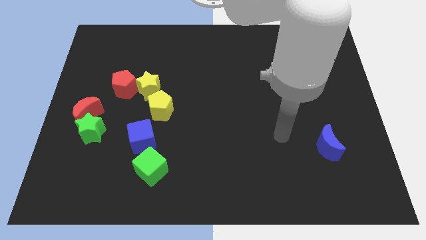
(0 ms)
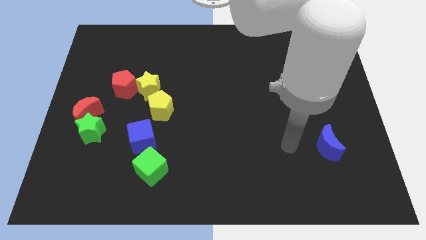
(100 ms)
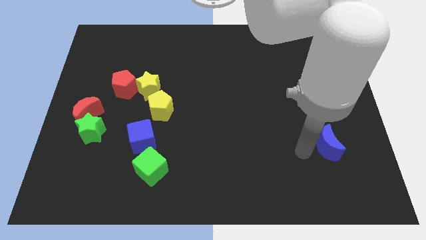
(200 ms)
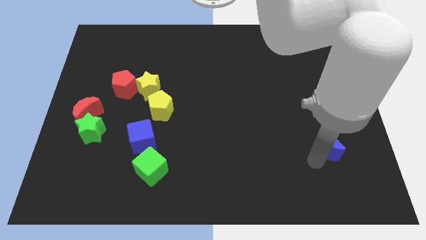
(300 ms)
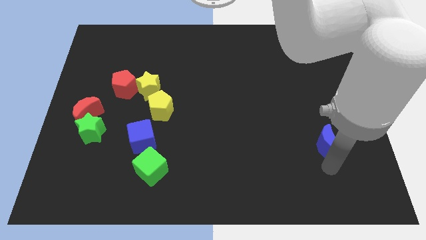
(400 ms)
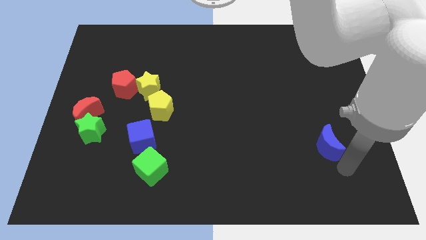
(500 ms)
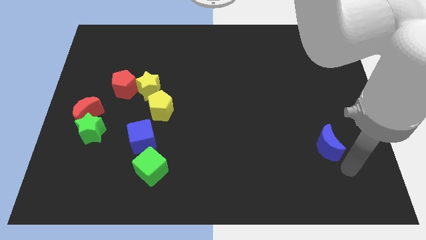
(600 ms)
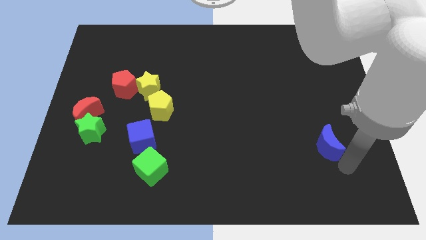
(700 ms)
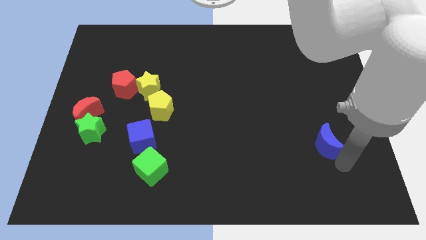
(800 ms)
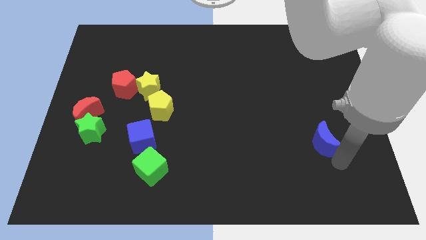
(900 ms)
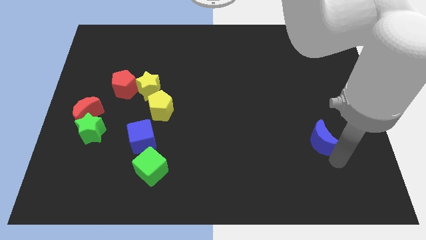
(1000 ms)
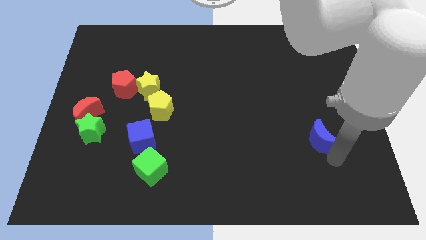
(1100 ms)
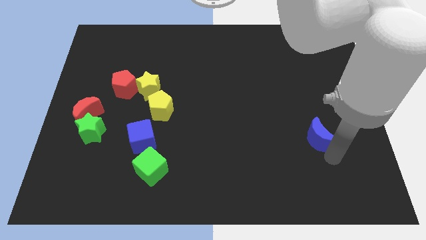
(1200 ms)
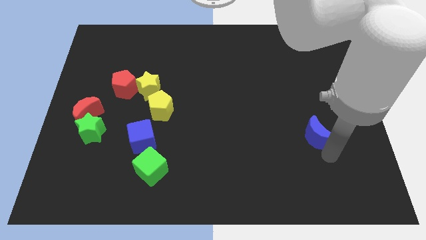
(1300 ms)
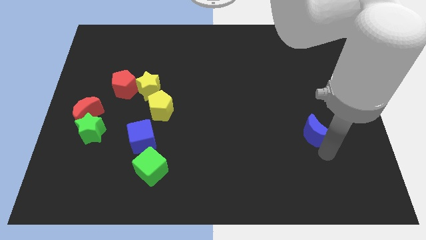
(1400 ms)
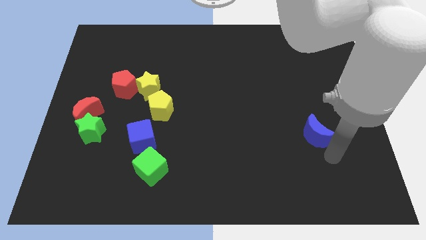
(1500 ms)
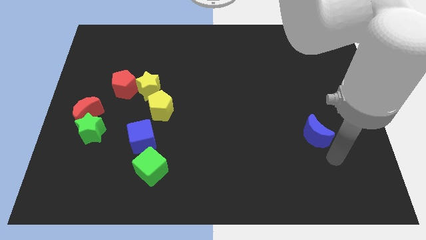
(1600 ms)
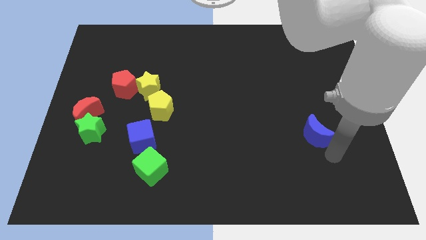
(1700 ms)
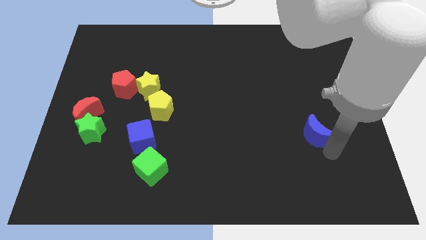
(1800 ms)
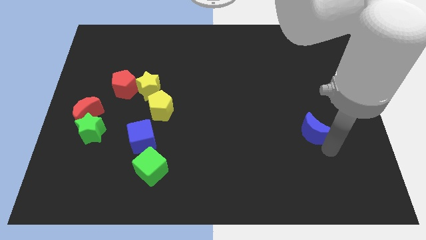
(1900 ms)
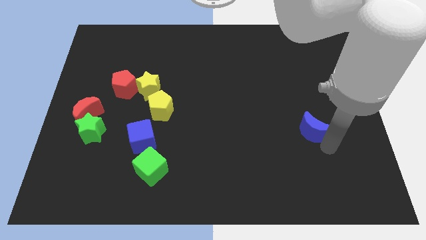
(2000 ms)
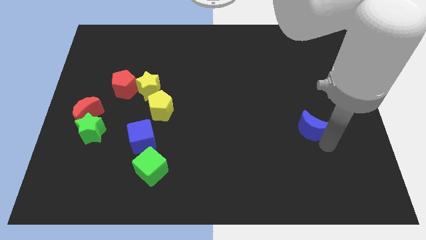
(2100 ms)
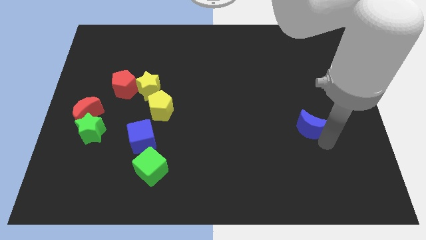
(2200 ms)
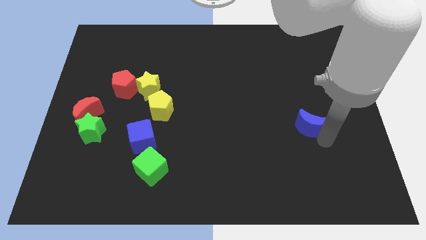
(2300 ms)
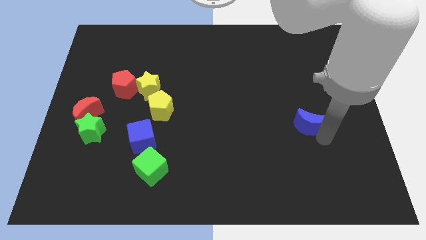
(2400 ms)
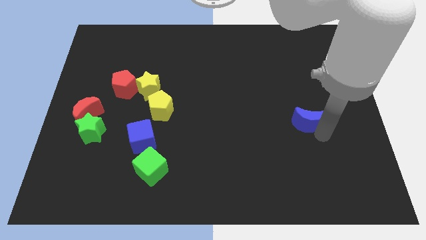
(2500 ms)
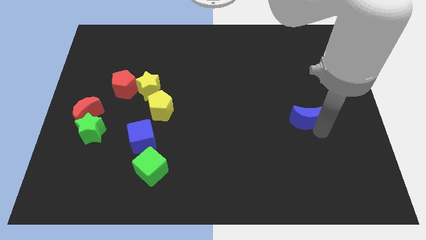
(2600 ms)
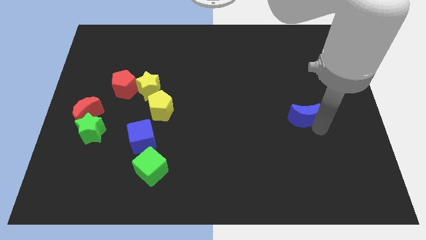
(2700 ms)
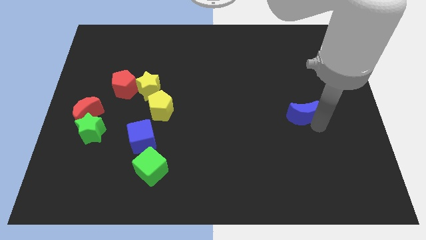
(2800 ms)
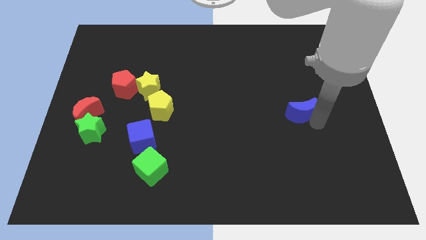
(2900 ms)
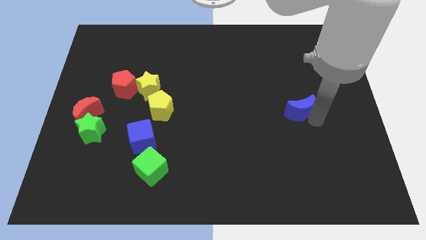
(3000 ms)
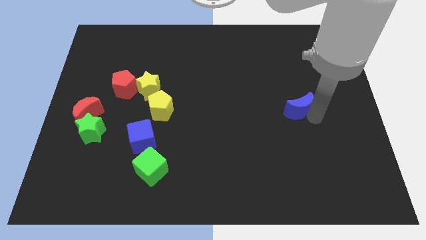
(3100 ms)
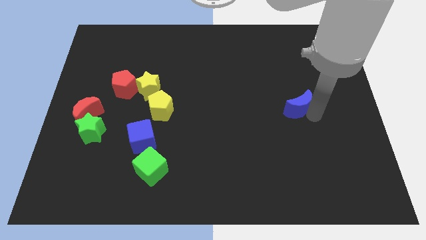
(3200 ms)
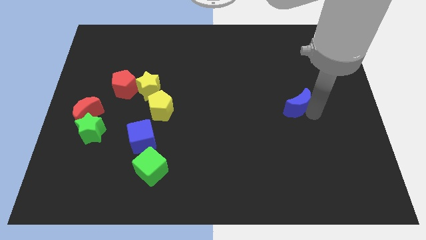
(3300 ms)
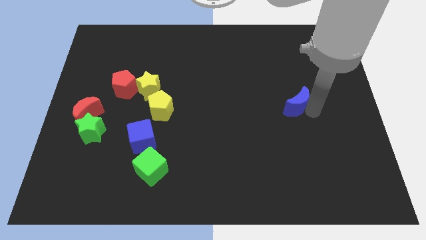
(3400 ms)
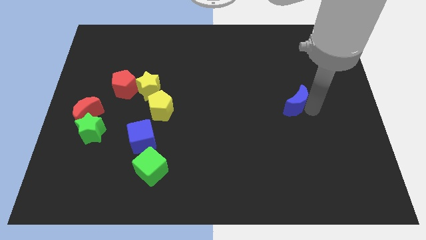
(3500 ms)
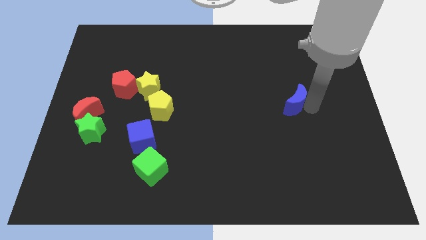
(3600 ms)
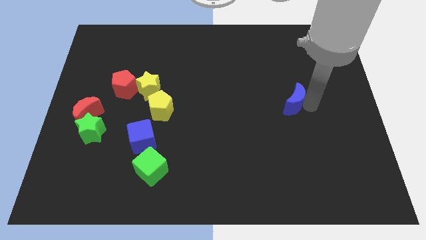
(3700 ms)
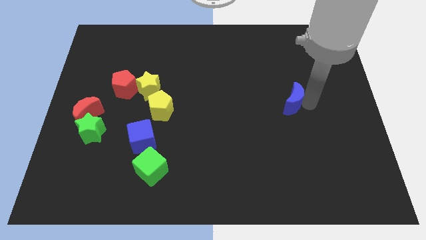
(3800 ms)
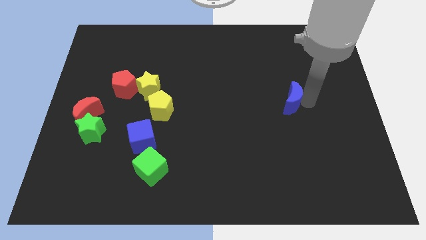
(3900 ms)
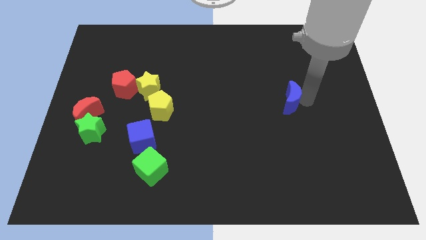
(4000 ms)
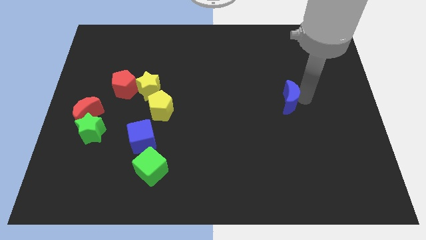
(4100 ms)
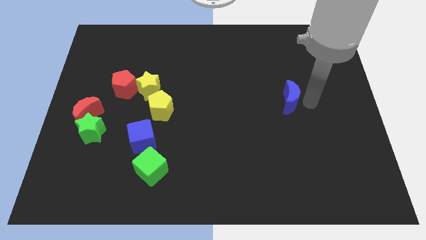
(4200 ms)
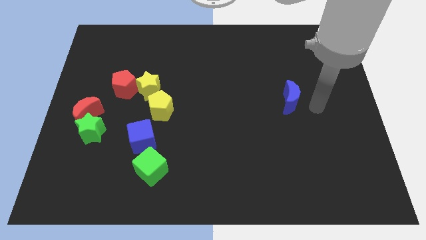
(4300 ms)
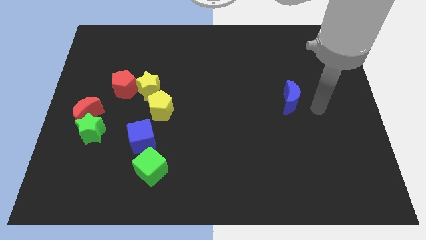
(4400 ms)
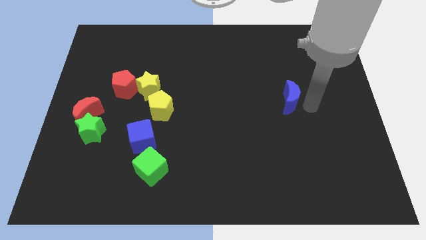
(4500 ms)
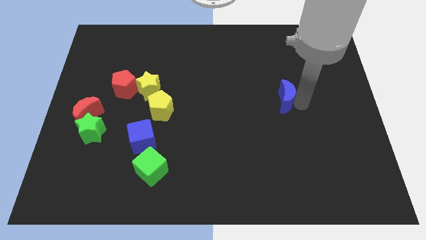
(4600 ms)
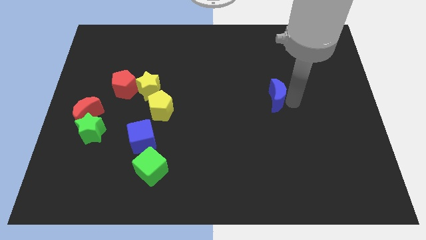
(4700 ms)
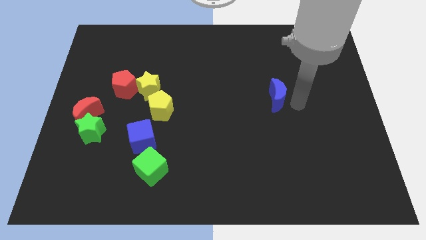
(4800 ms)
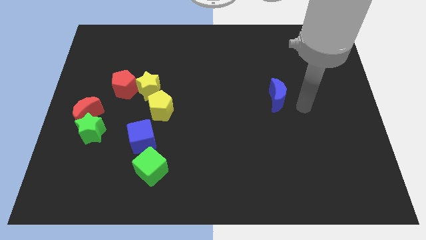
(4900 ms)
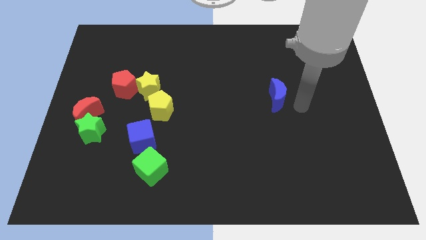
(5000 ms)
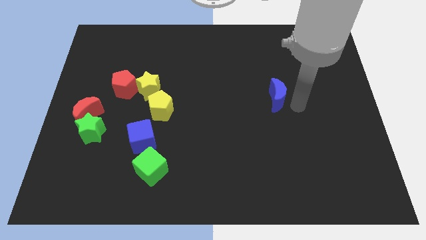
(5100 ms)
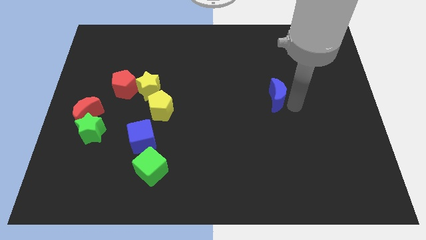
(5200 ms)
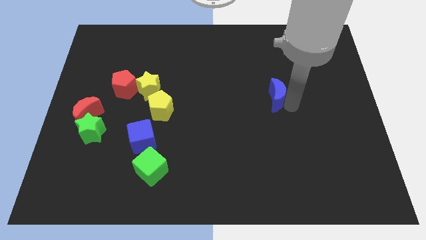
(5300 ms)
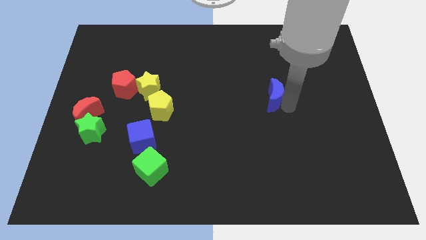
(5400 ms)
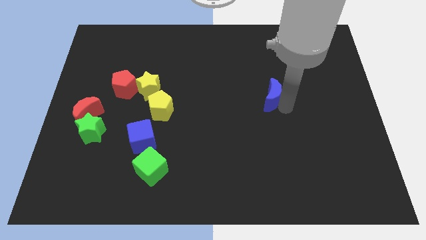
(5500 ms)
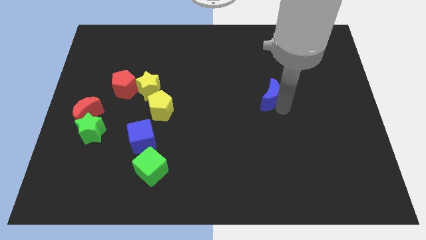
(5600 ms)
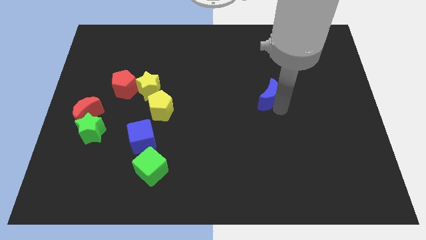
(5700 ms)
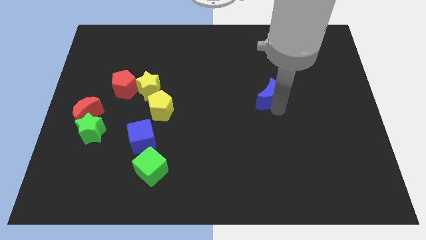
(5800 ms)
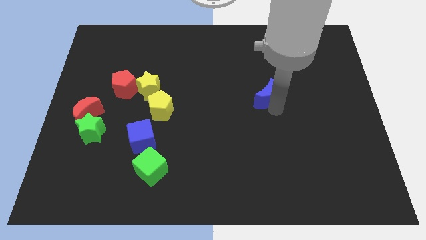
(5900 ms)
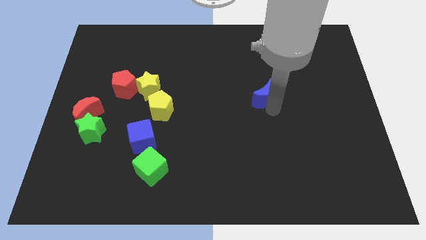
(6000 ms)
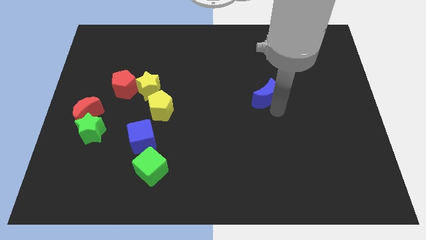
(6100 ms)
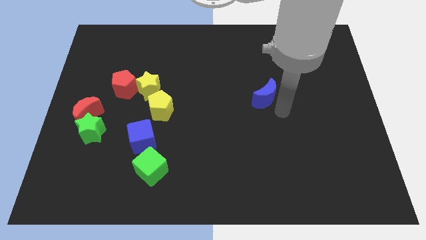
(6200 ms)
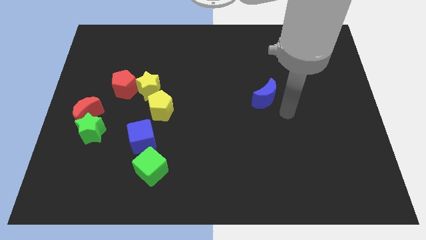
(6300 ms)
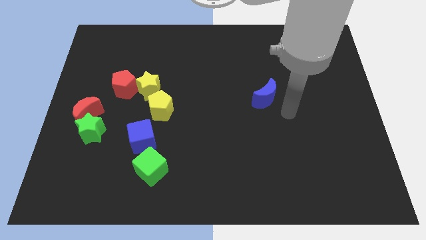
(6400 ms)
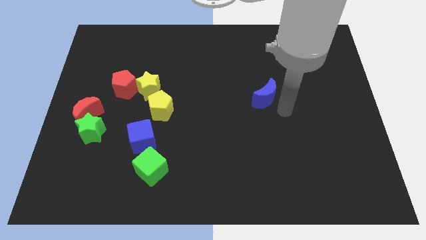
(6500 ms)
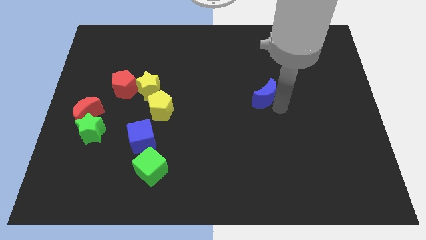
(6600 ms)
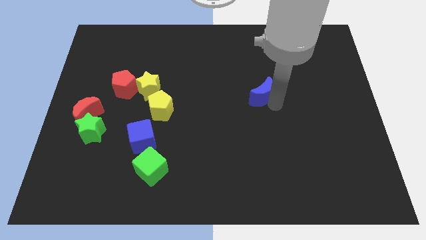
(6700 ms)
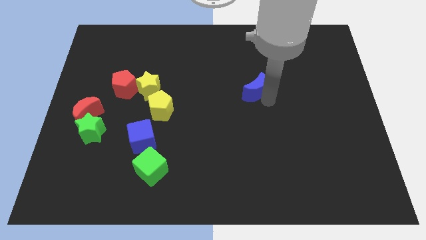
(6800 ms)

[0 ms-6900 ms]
move the blue moon upwards and to the left

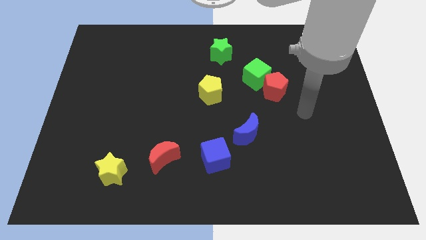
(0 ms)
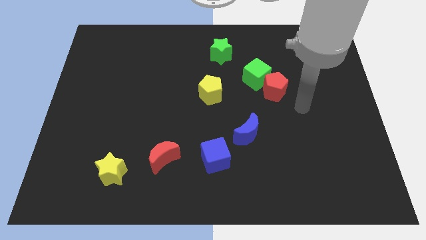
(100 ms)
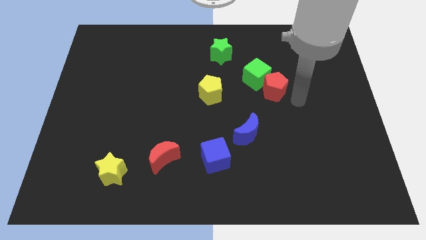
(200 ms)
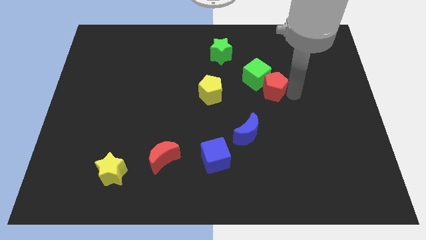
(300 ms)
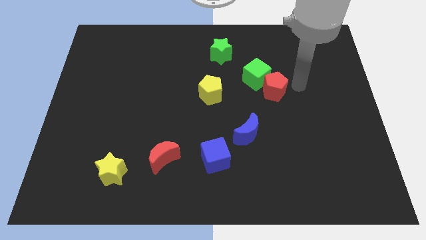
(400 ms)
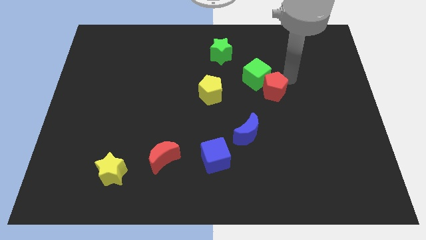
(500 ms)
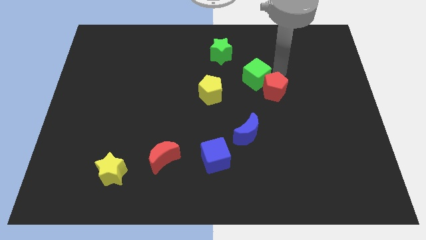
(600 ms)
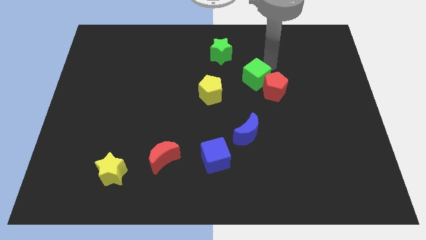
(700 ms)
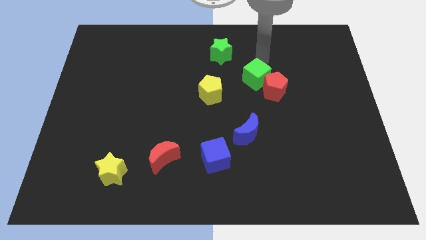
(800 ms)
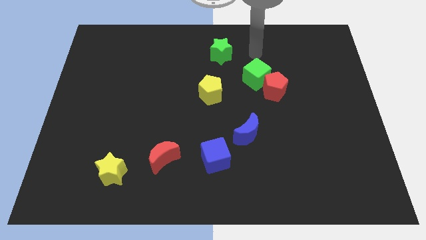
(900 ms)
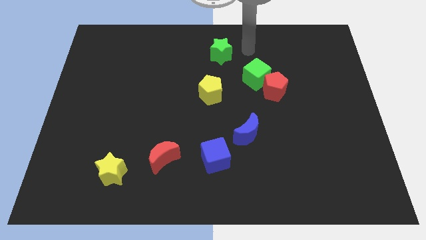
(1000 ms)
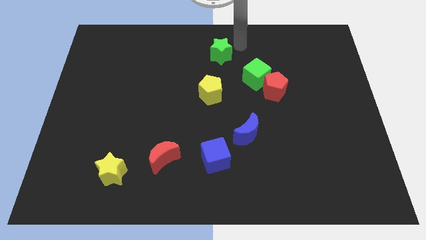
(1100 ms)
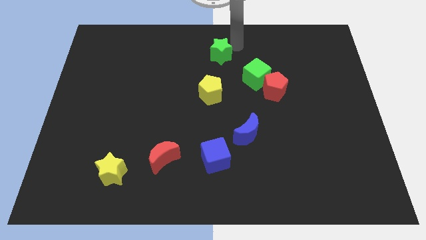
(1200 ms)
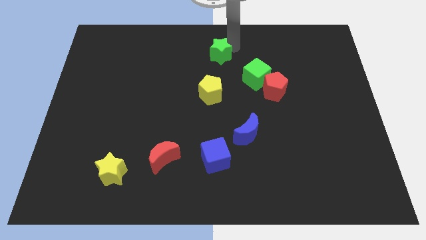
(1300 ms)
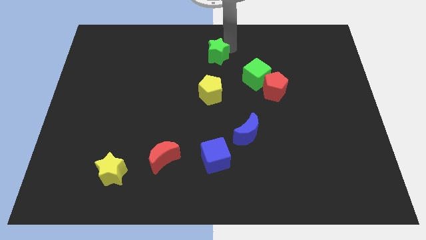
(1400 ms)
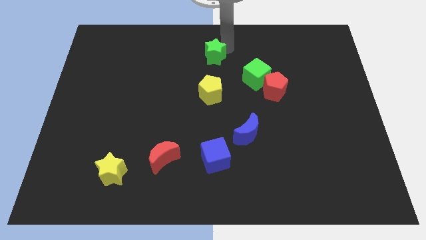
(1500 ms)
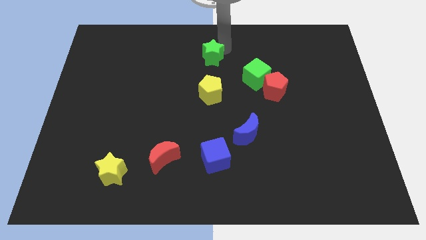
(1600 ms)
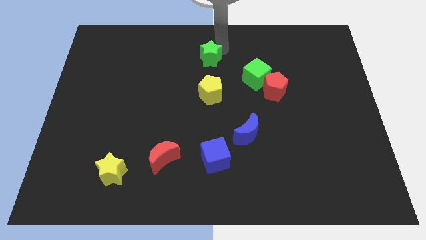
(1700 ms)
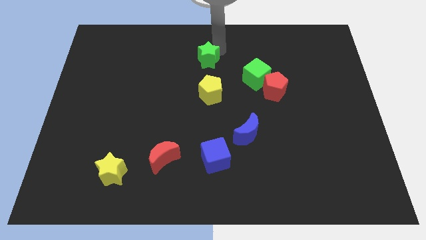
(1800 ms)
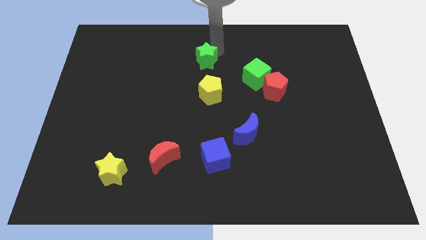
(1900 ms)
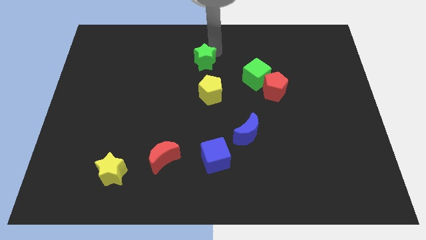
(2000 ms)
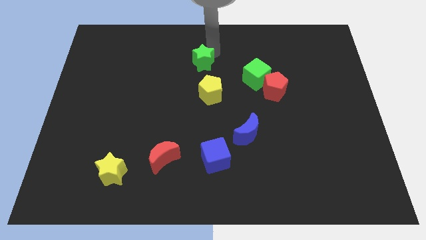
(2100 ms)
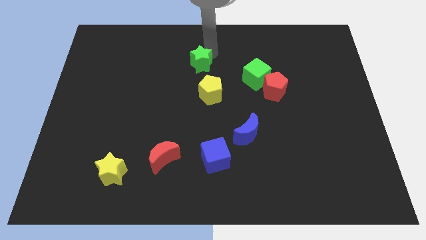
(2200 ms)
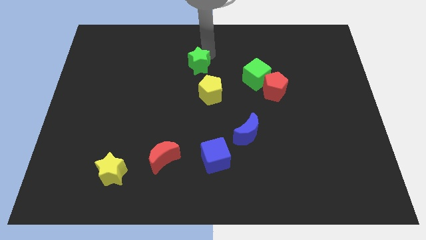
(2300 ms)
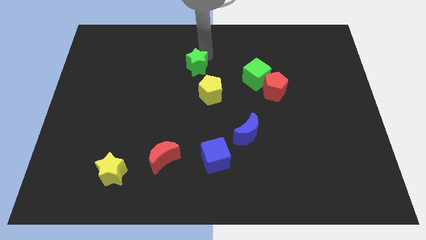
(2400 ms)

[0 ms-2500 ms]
slide the green star a little down and to the left diagonally
